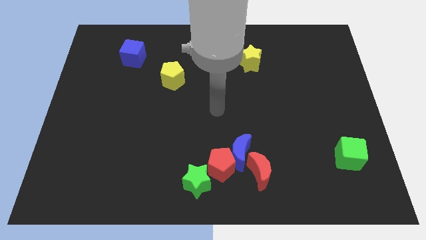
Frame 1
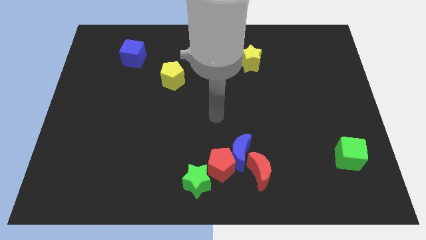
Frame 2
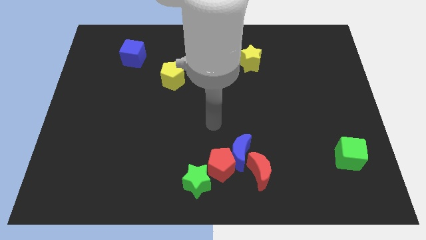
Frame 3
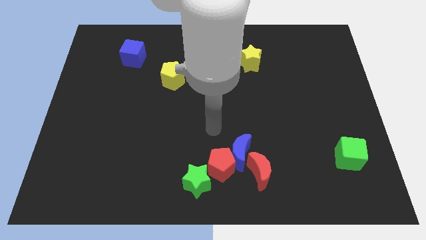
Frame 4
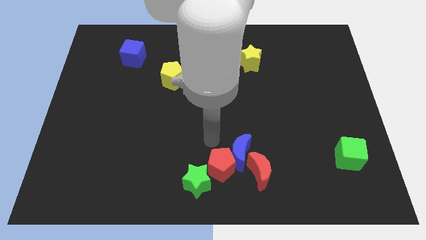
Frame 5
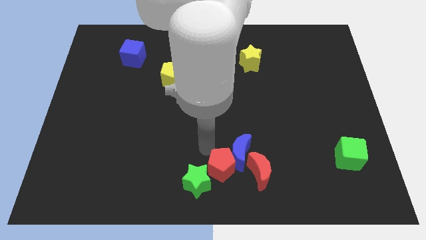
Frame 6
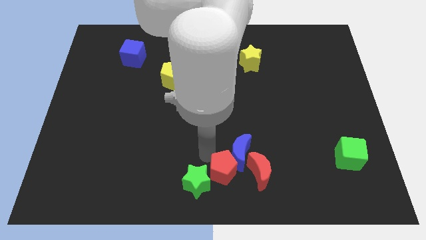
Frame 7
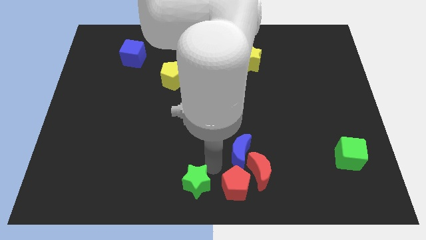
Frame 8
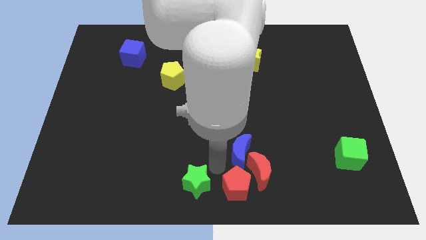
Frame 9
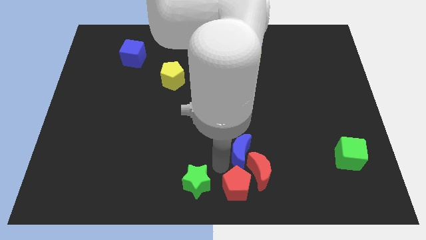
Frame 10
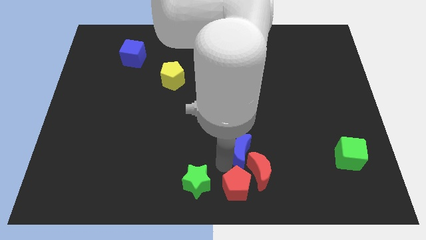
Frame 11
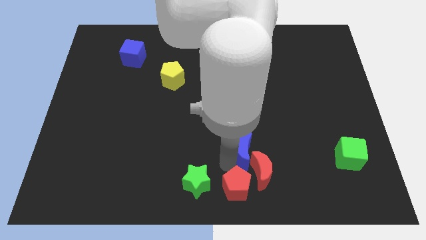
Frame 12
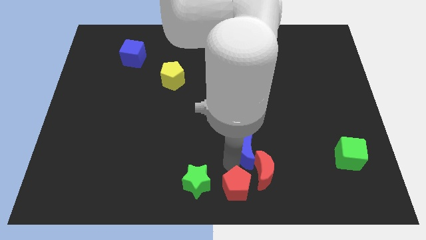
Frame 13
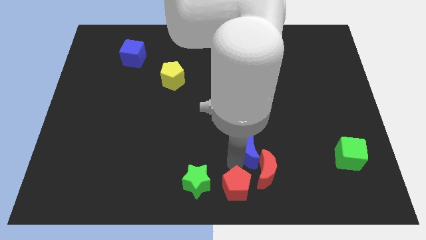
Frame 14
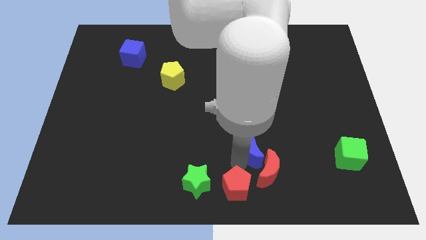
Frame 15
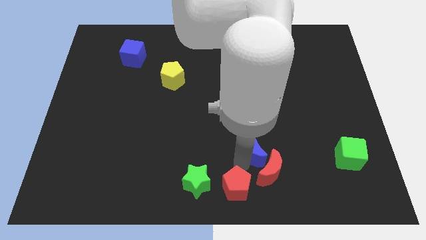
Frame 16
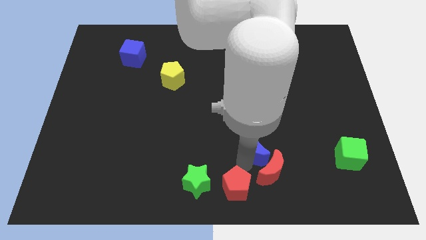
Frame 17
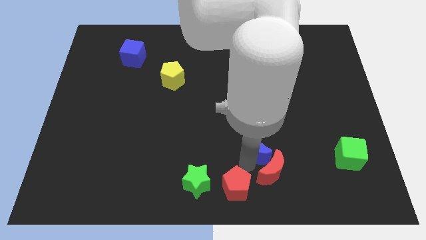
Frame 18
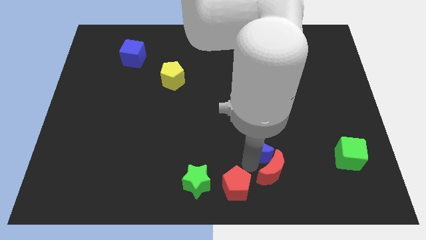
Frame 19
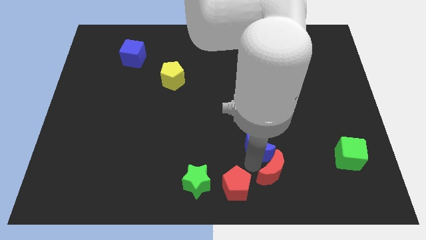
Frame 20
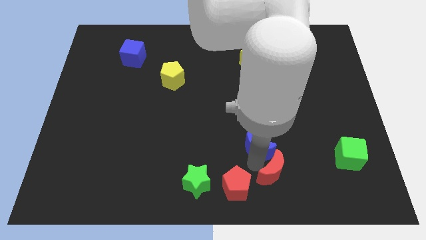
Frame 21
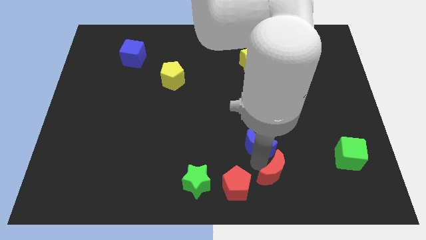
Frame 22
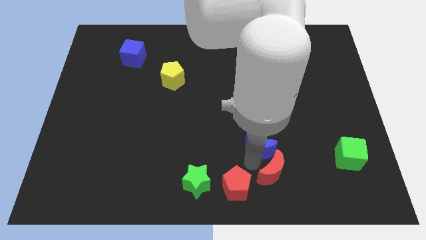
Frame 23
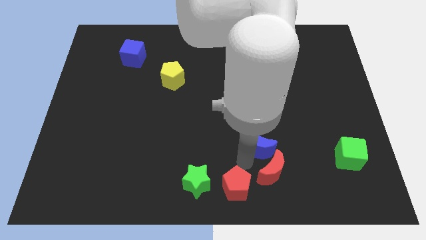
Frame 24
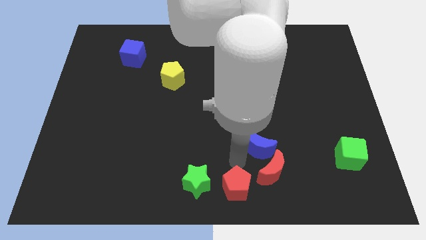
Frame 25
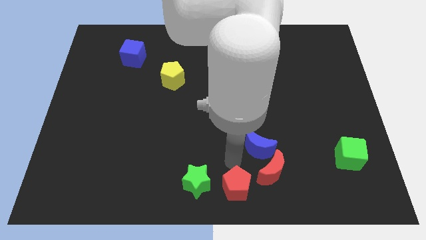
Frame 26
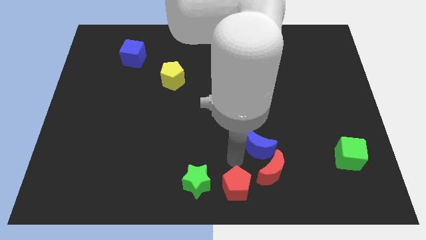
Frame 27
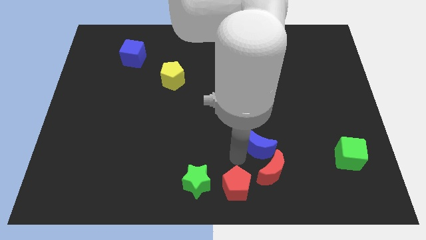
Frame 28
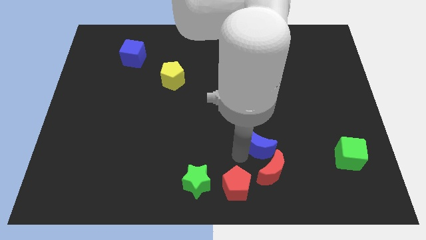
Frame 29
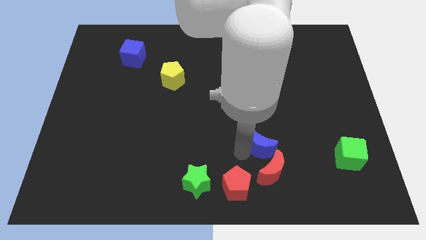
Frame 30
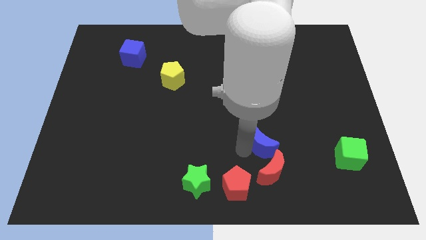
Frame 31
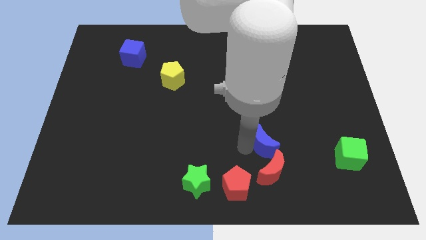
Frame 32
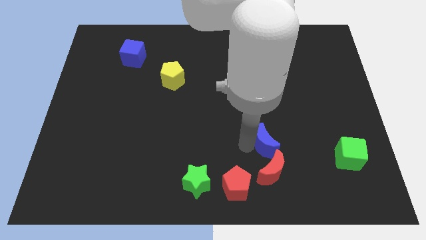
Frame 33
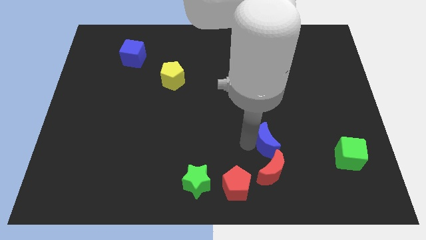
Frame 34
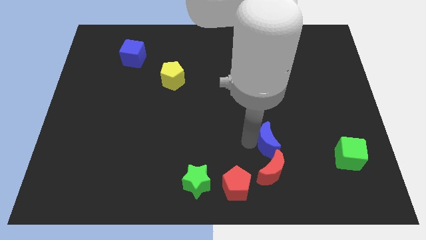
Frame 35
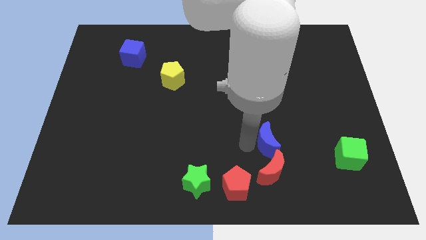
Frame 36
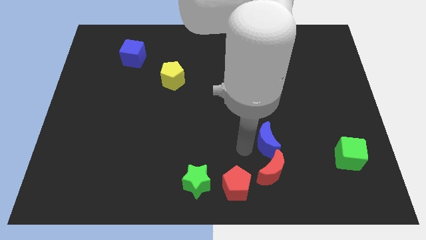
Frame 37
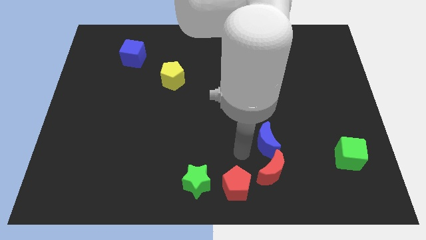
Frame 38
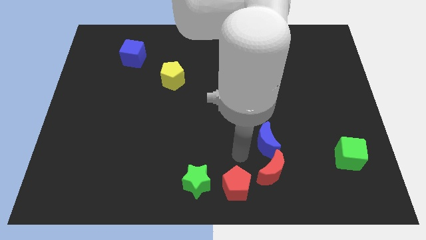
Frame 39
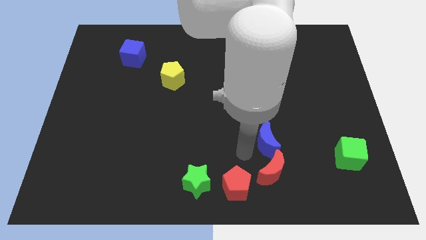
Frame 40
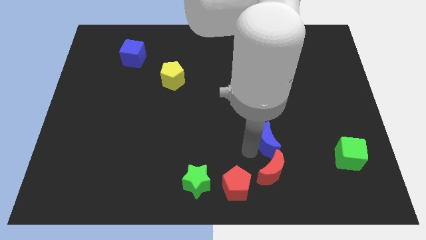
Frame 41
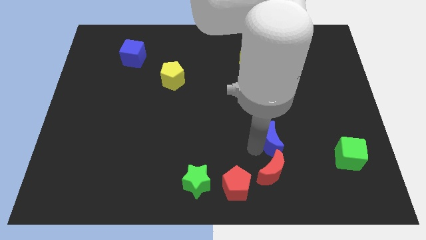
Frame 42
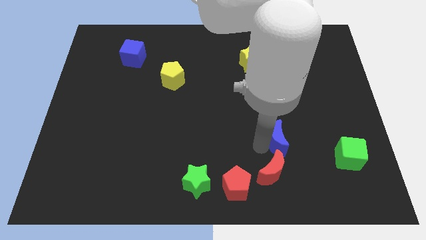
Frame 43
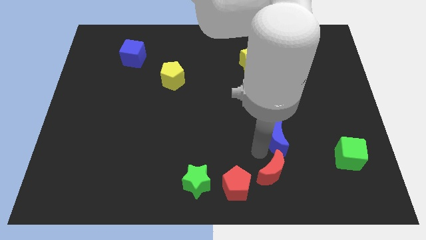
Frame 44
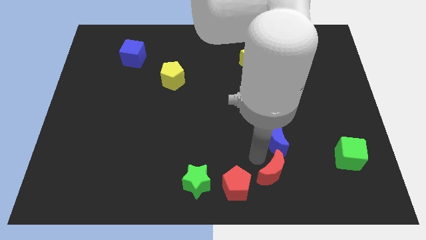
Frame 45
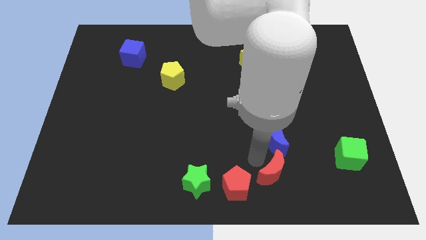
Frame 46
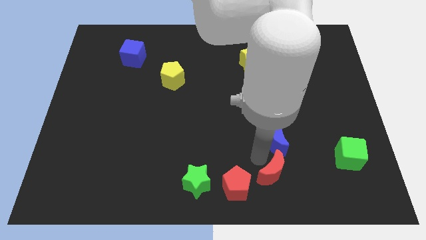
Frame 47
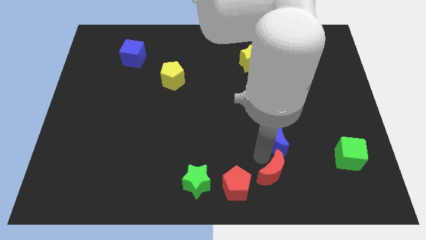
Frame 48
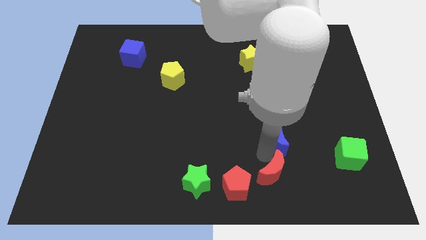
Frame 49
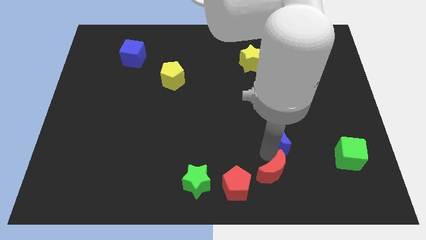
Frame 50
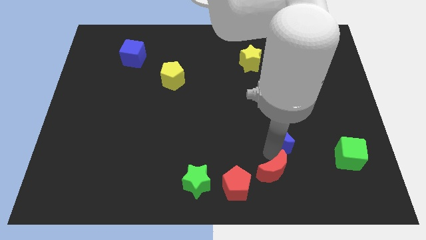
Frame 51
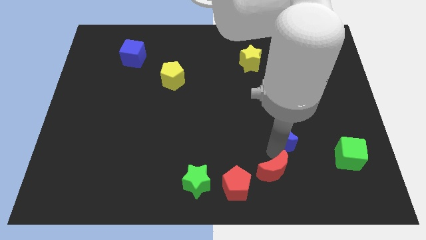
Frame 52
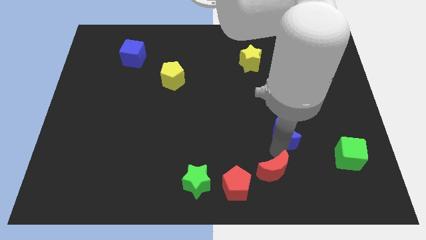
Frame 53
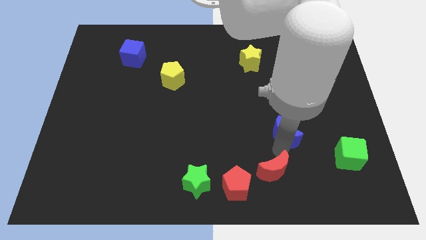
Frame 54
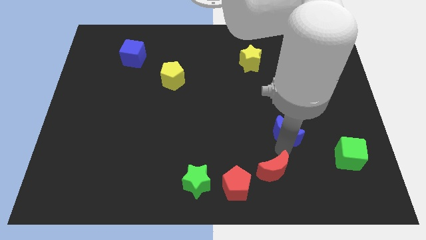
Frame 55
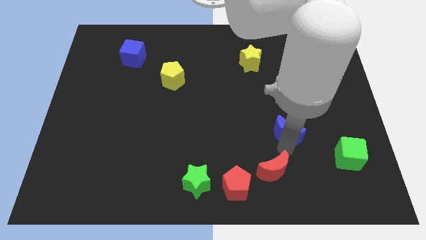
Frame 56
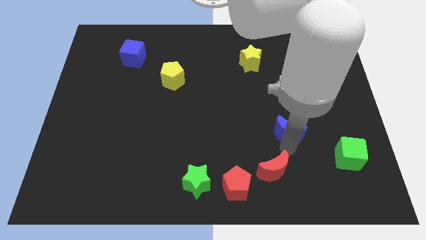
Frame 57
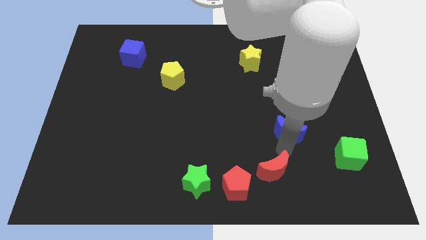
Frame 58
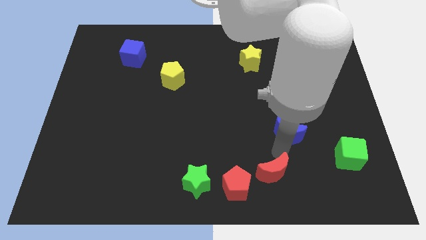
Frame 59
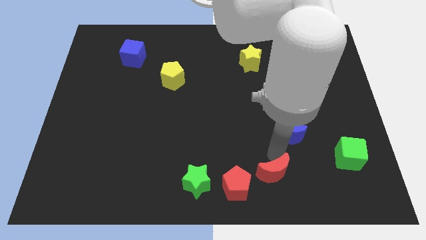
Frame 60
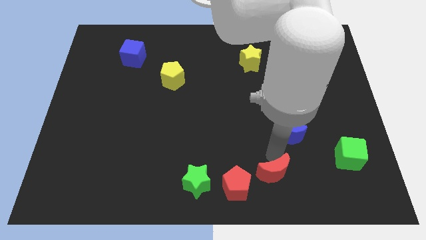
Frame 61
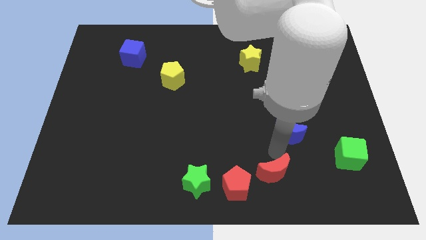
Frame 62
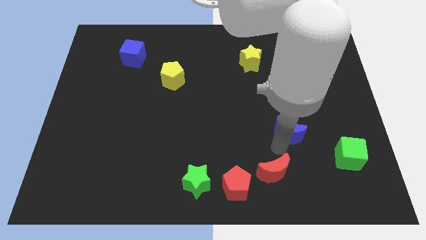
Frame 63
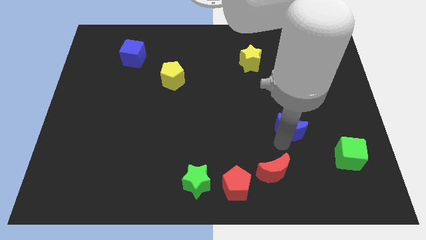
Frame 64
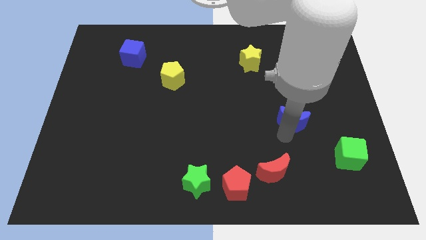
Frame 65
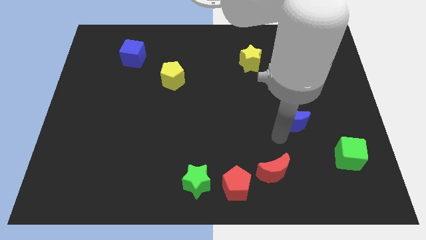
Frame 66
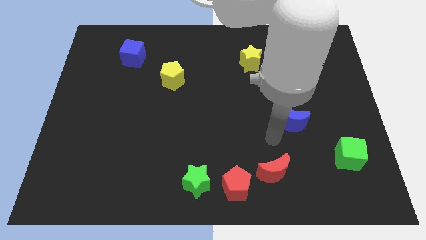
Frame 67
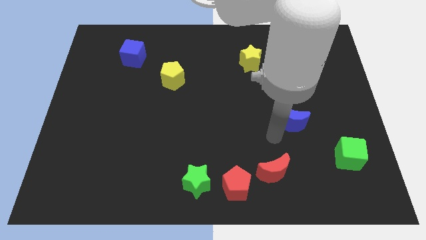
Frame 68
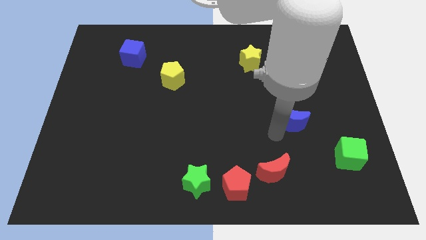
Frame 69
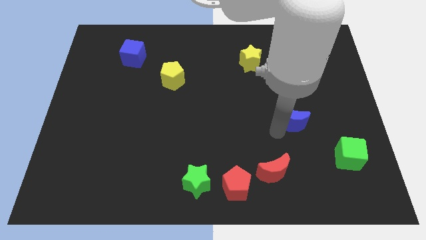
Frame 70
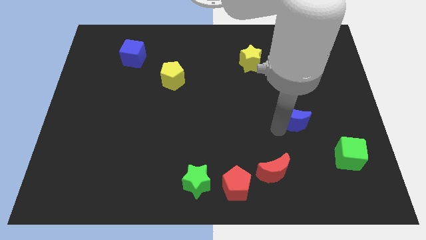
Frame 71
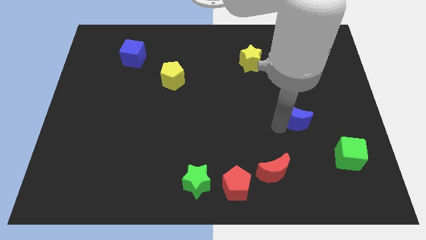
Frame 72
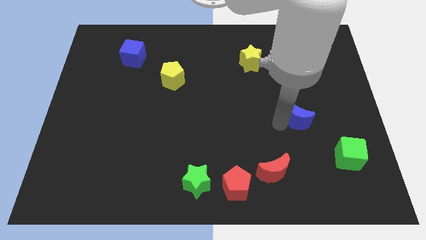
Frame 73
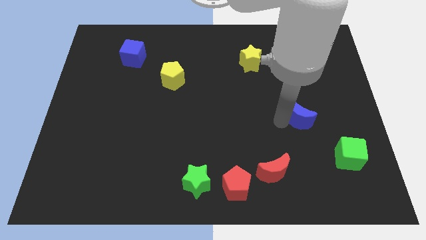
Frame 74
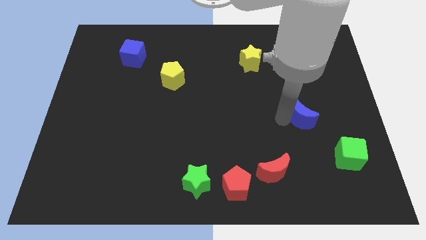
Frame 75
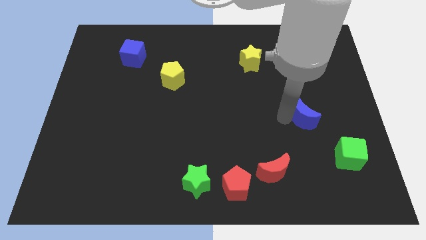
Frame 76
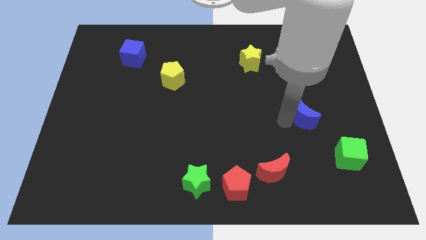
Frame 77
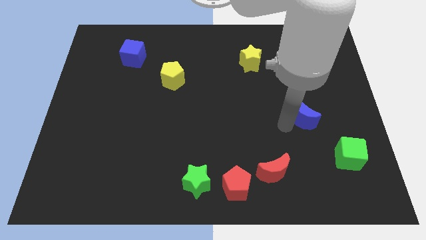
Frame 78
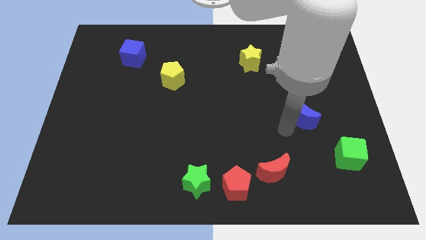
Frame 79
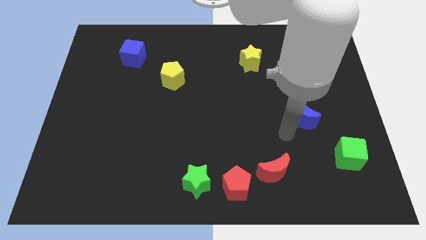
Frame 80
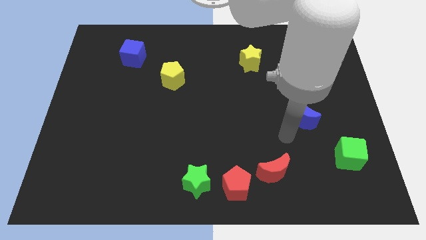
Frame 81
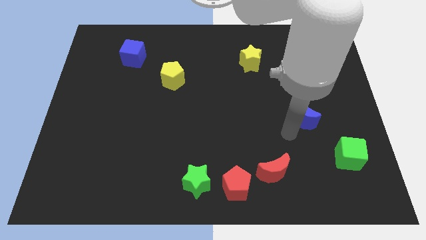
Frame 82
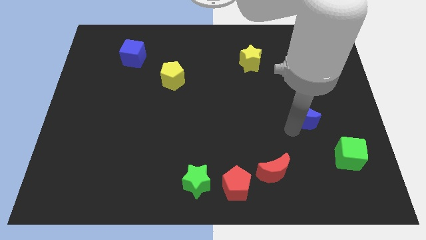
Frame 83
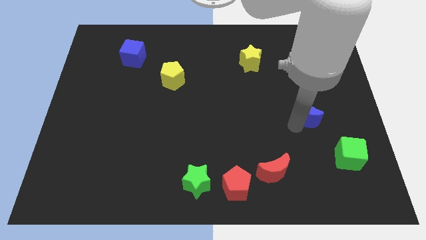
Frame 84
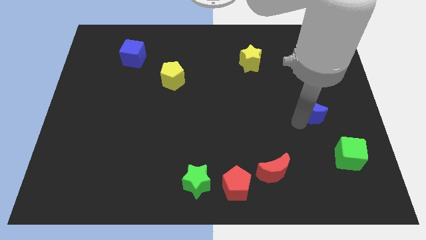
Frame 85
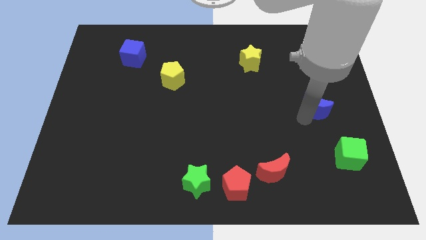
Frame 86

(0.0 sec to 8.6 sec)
move the blue moon upwards and to the right
